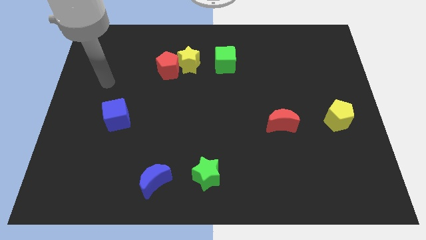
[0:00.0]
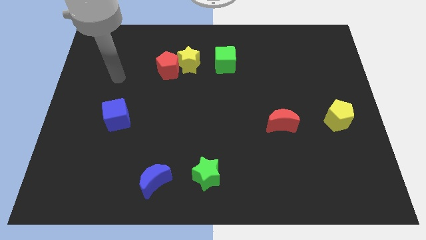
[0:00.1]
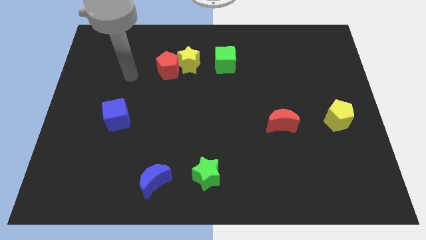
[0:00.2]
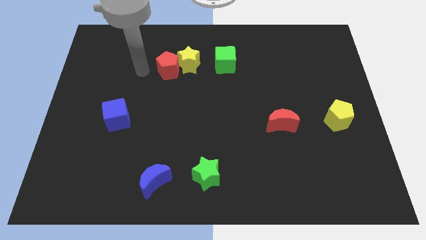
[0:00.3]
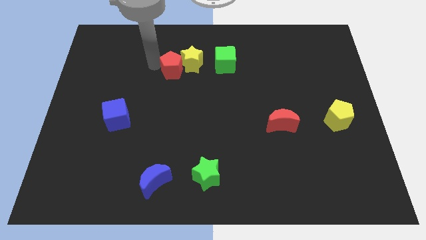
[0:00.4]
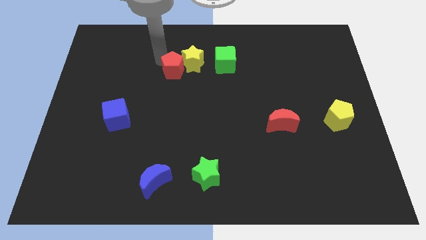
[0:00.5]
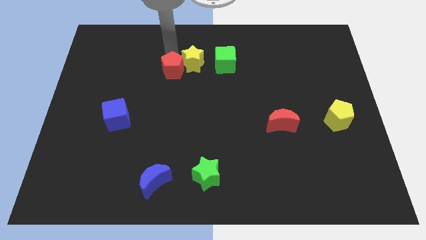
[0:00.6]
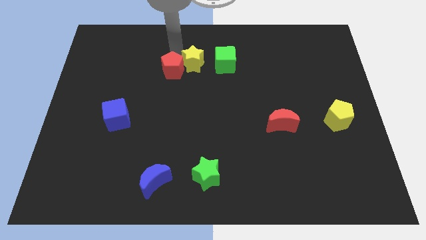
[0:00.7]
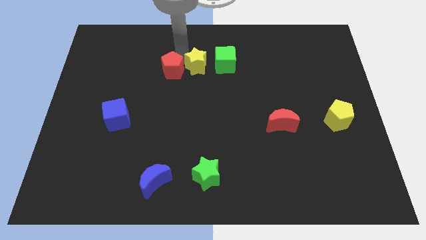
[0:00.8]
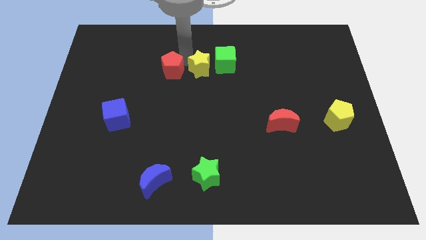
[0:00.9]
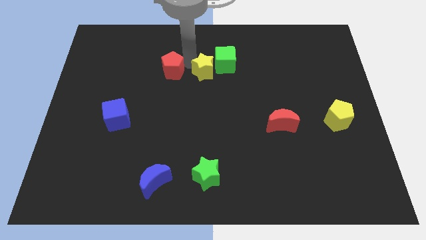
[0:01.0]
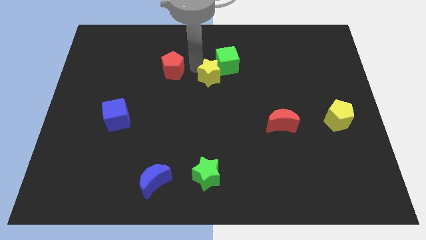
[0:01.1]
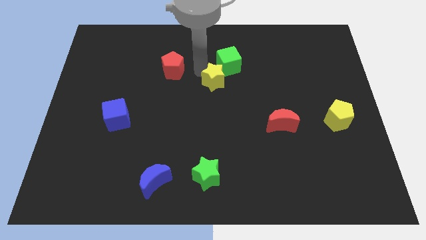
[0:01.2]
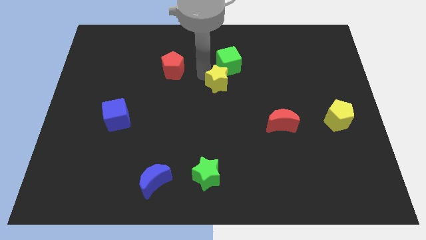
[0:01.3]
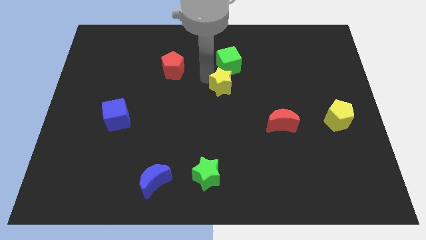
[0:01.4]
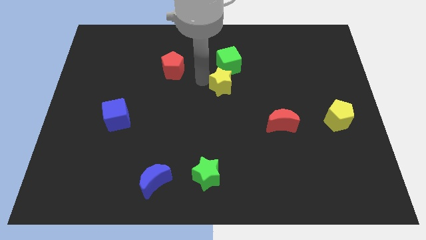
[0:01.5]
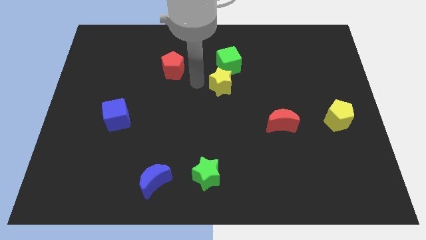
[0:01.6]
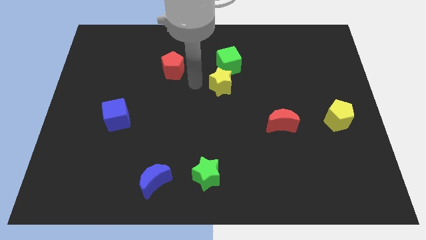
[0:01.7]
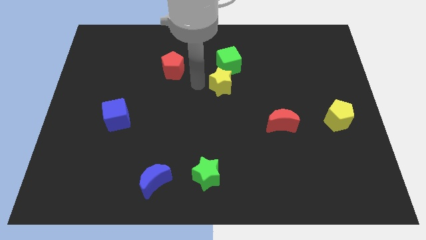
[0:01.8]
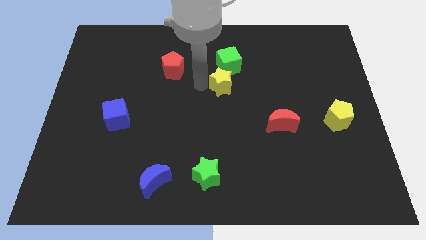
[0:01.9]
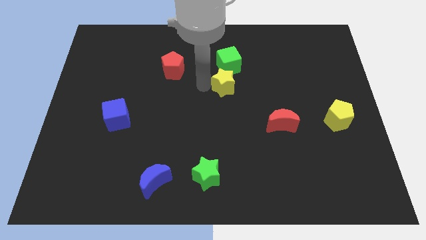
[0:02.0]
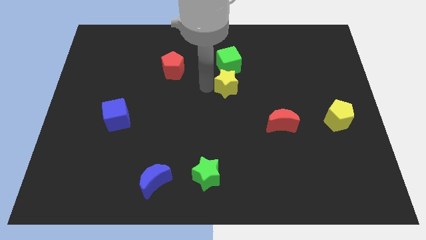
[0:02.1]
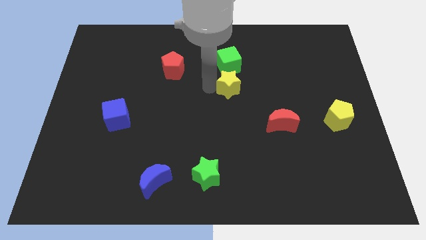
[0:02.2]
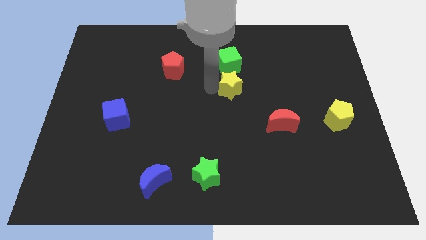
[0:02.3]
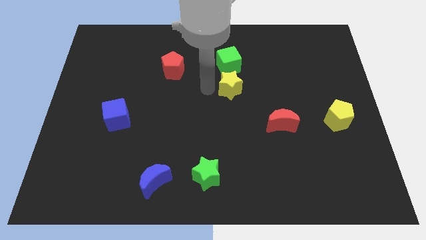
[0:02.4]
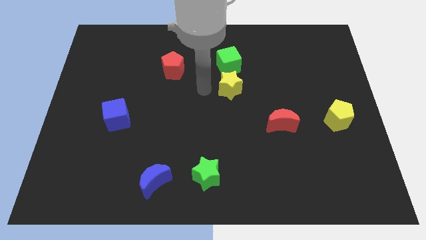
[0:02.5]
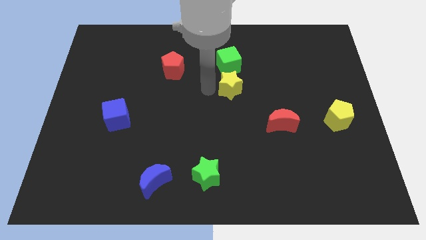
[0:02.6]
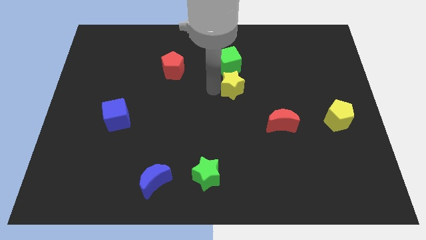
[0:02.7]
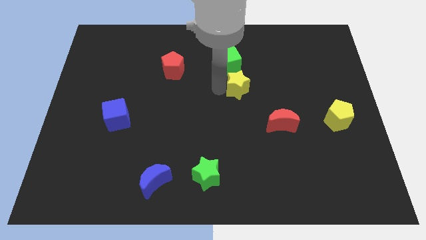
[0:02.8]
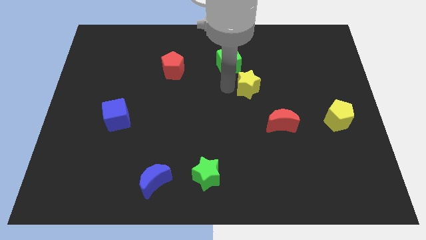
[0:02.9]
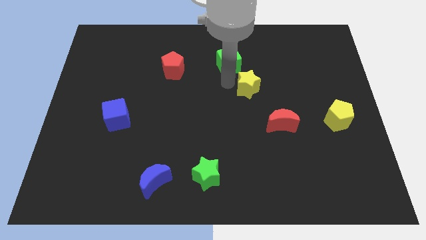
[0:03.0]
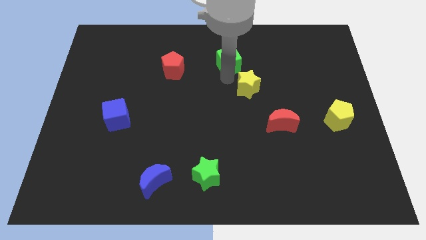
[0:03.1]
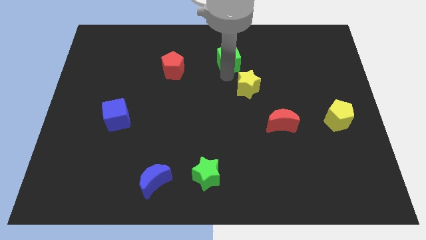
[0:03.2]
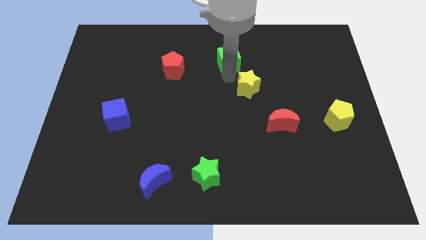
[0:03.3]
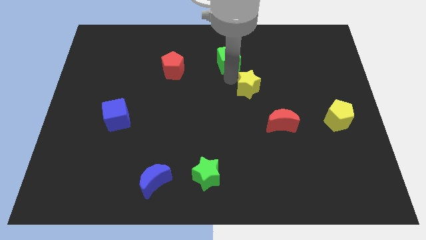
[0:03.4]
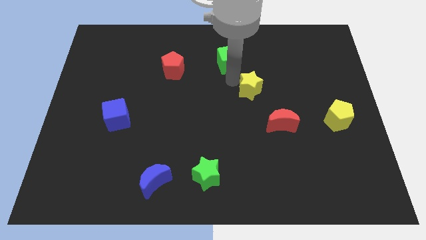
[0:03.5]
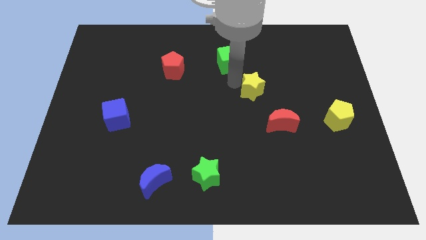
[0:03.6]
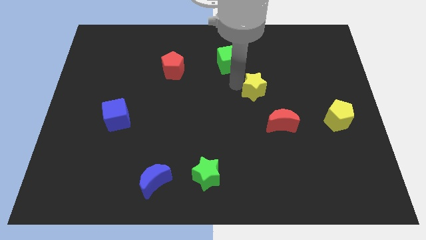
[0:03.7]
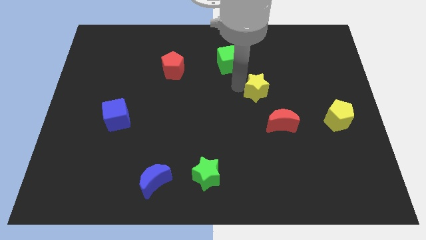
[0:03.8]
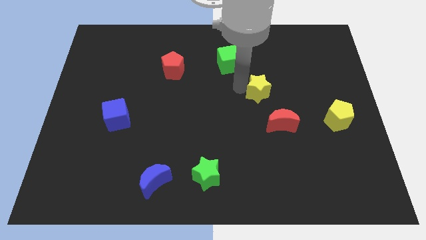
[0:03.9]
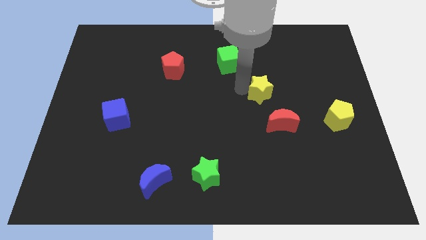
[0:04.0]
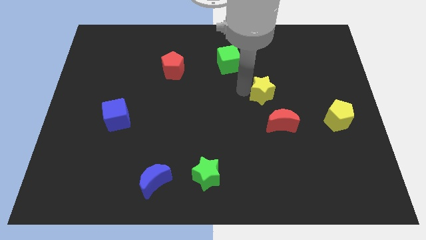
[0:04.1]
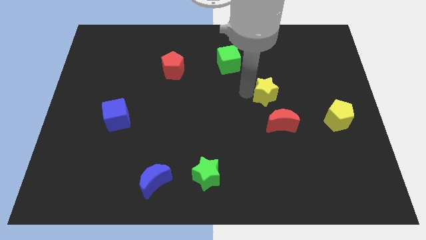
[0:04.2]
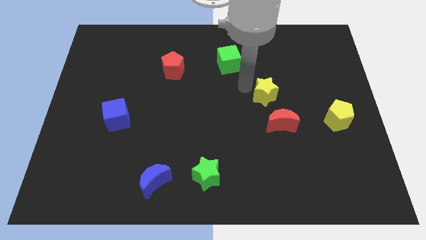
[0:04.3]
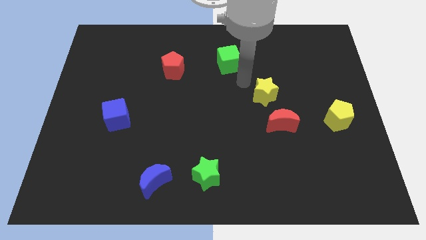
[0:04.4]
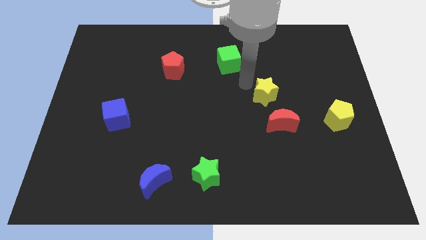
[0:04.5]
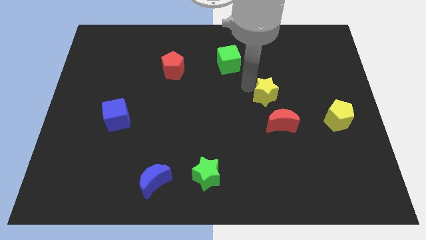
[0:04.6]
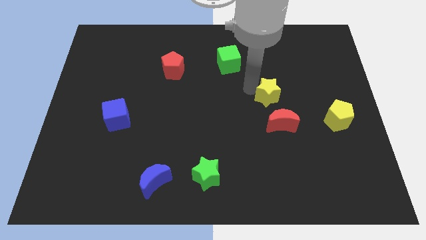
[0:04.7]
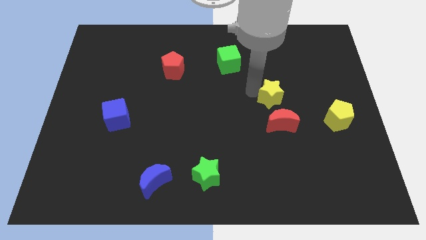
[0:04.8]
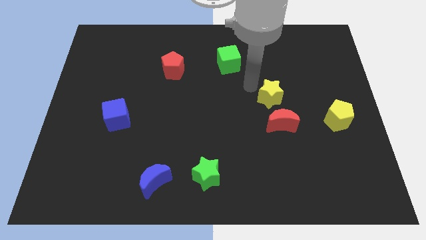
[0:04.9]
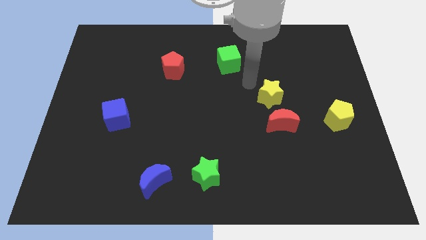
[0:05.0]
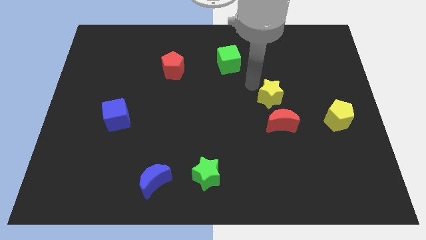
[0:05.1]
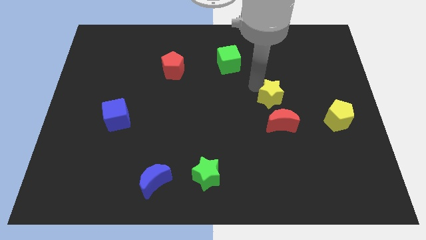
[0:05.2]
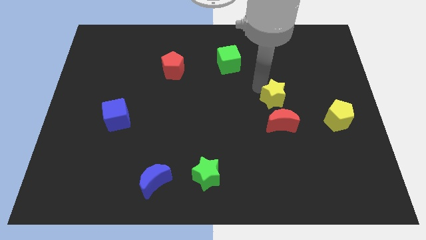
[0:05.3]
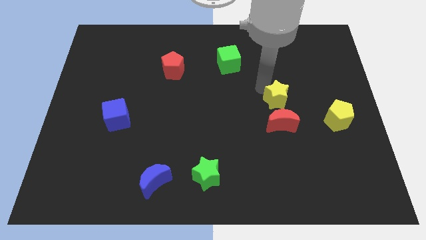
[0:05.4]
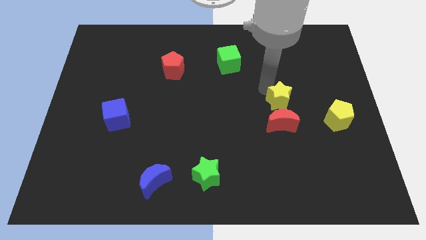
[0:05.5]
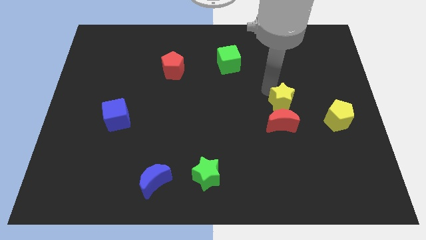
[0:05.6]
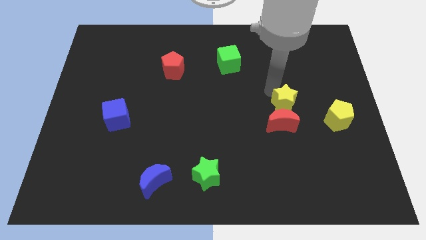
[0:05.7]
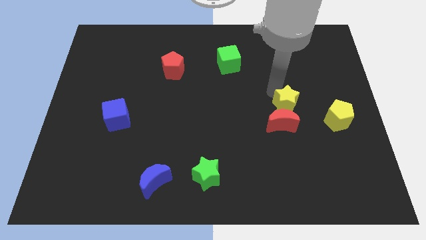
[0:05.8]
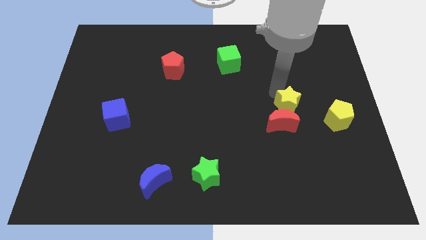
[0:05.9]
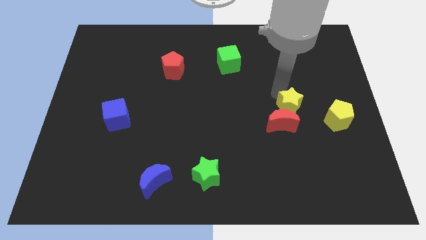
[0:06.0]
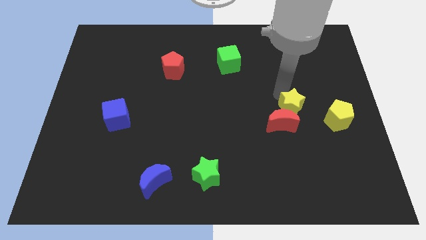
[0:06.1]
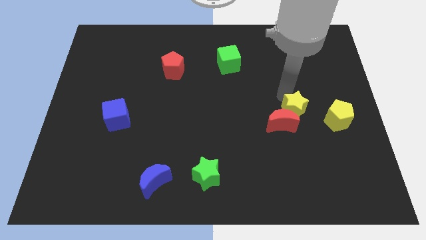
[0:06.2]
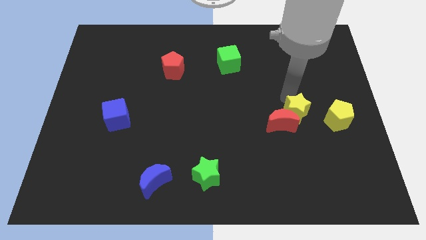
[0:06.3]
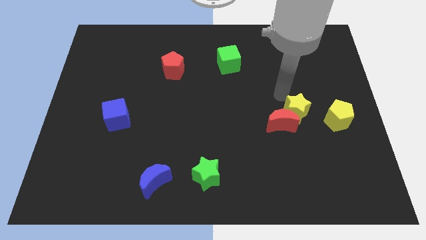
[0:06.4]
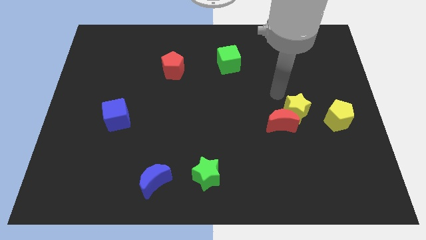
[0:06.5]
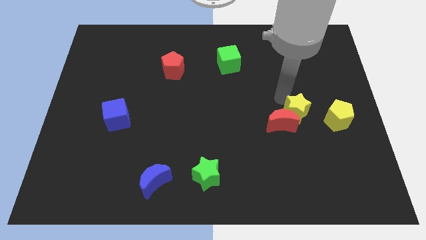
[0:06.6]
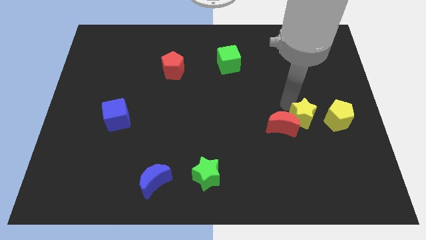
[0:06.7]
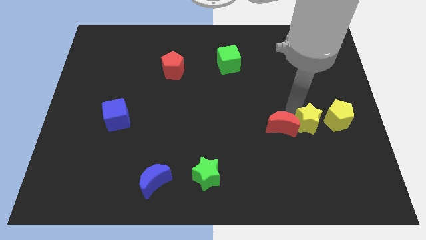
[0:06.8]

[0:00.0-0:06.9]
slide the yellow star to the bottom left of the yellow pentagon

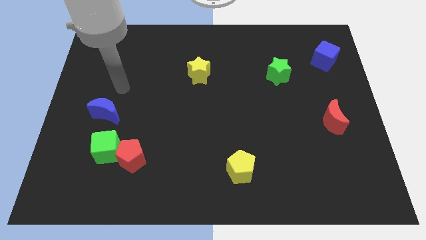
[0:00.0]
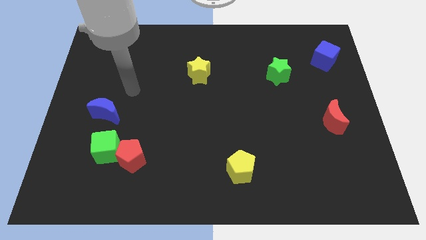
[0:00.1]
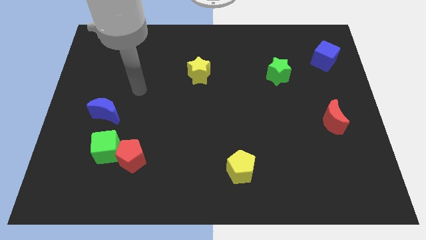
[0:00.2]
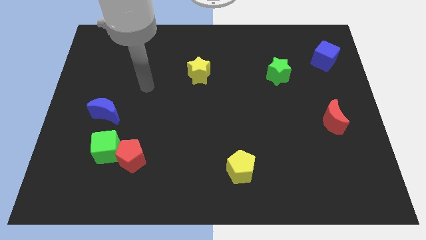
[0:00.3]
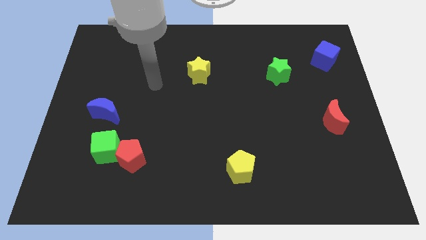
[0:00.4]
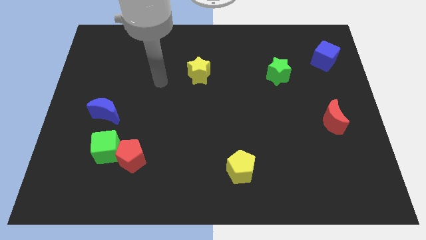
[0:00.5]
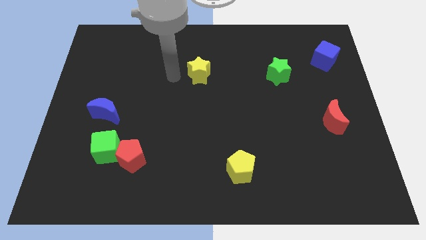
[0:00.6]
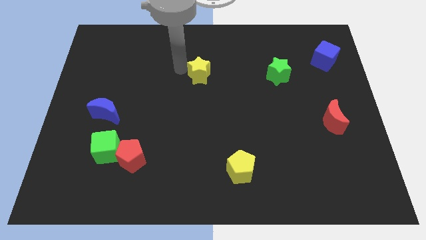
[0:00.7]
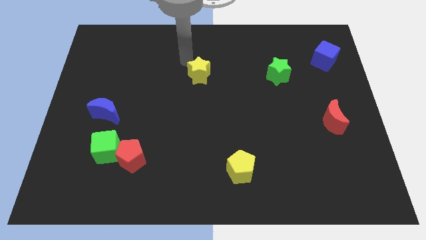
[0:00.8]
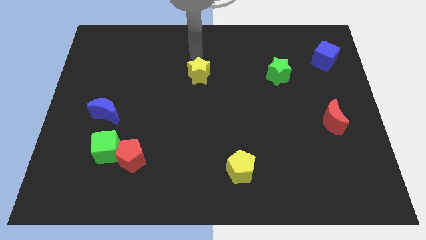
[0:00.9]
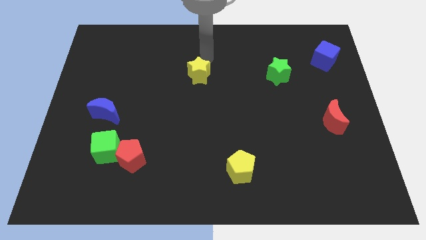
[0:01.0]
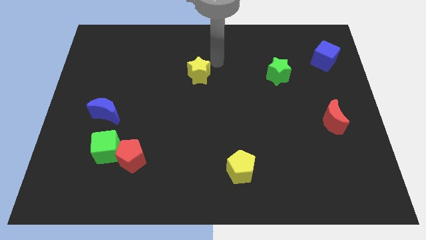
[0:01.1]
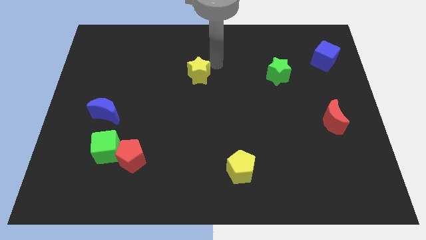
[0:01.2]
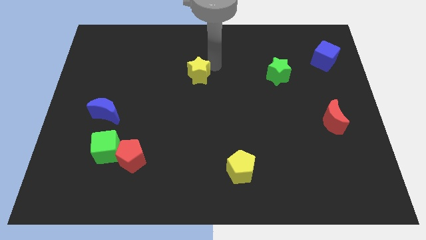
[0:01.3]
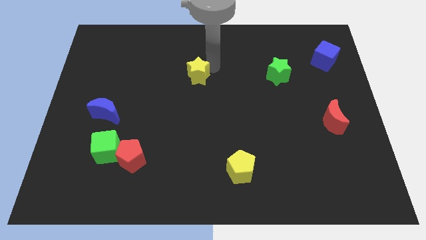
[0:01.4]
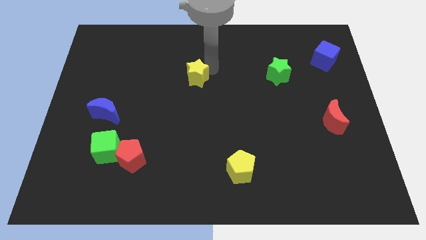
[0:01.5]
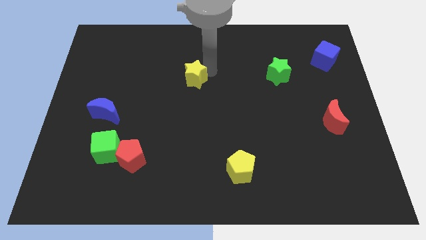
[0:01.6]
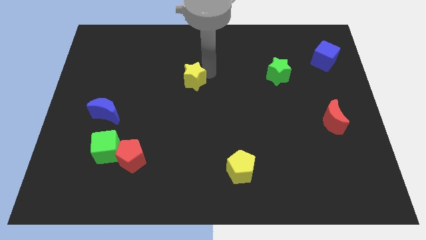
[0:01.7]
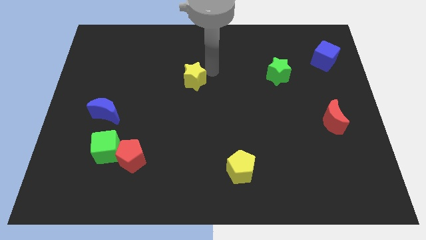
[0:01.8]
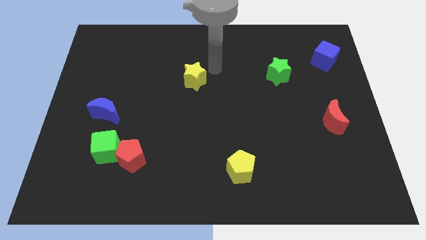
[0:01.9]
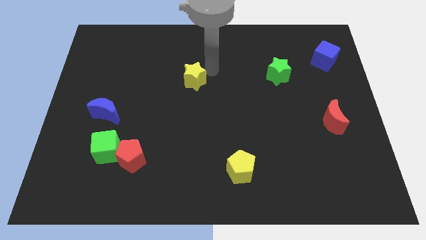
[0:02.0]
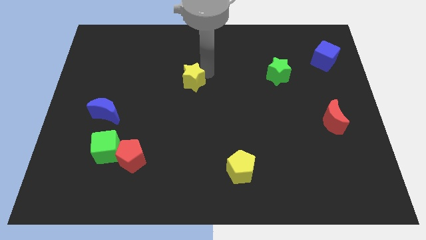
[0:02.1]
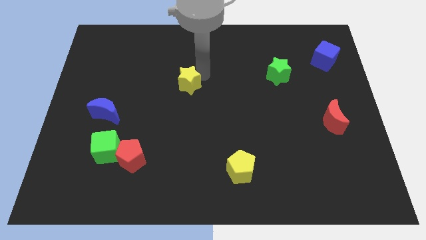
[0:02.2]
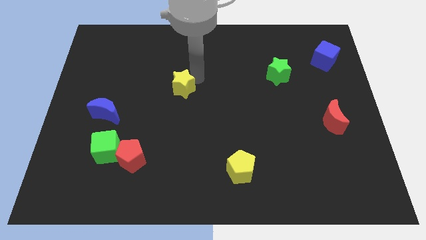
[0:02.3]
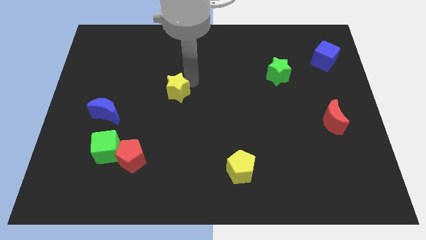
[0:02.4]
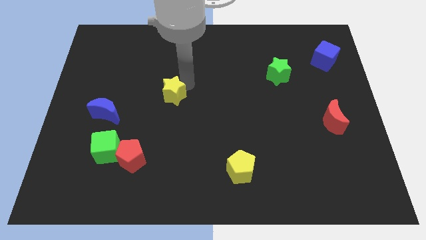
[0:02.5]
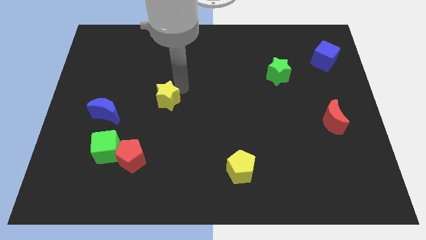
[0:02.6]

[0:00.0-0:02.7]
slide the yellow star to the right of the blue moon
